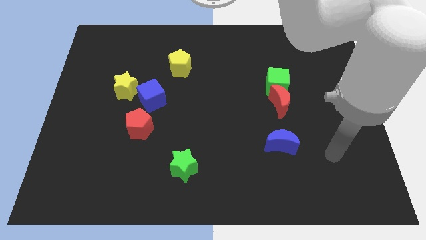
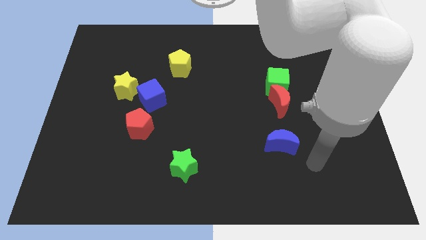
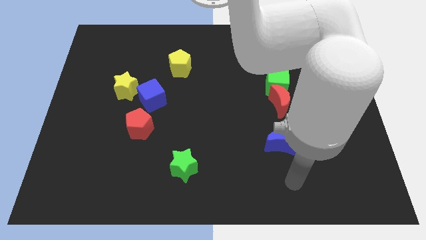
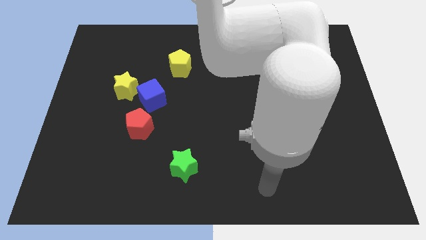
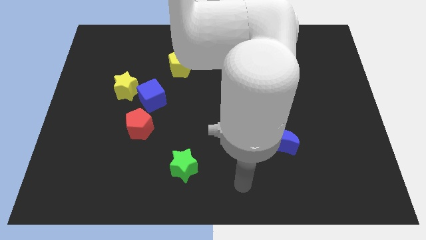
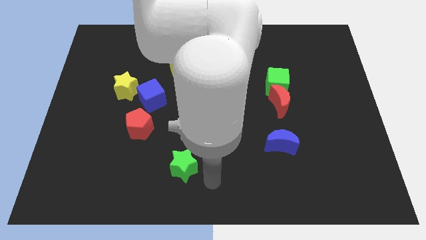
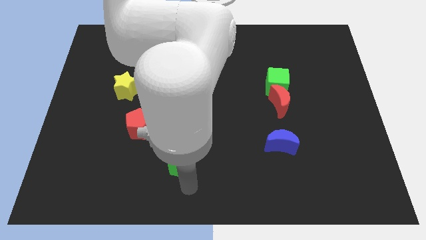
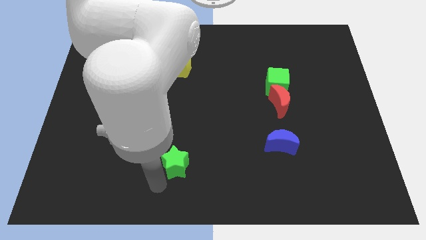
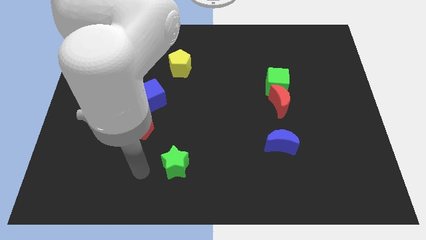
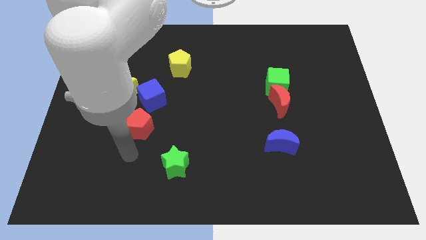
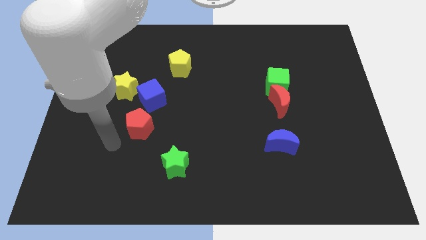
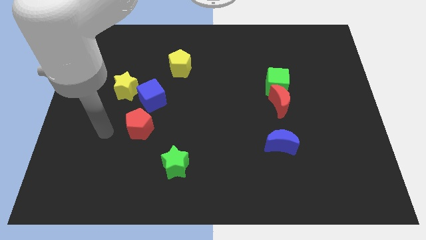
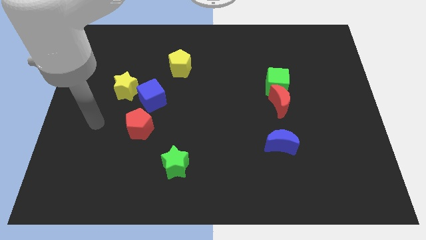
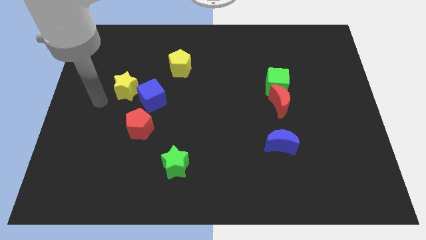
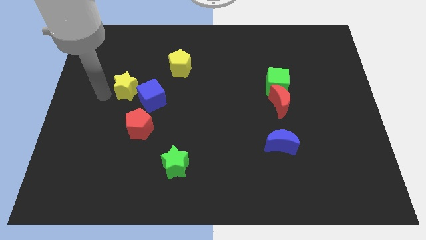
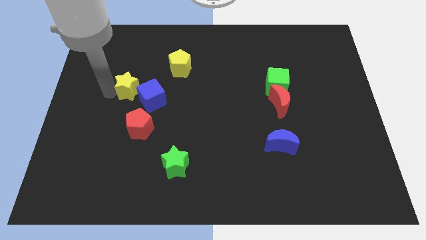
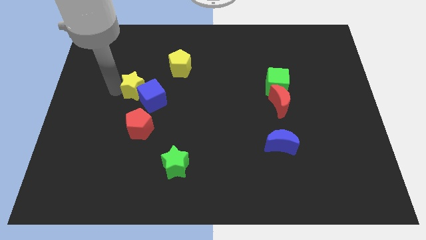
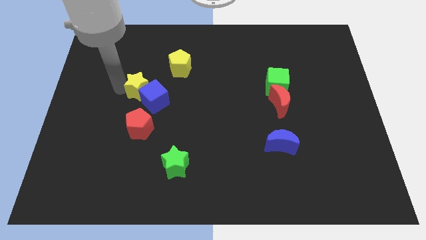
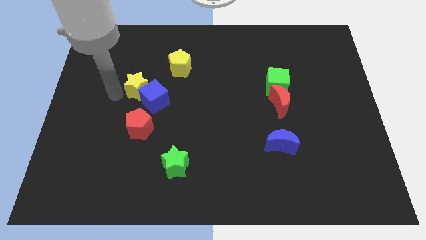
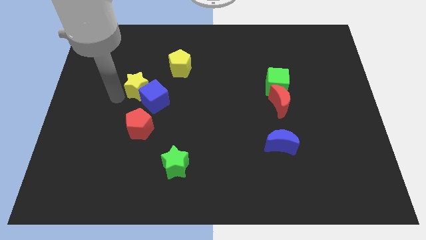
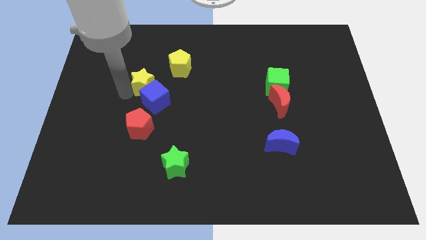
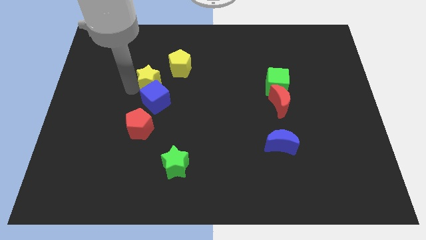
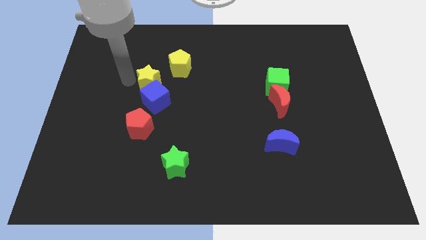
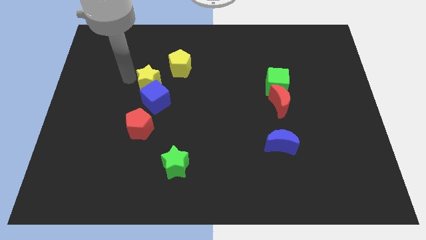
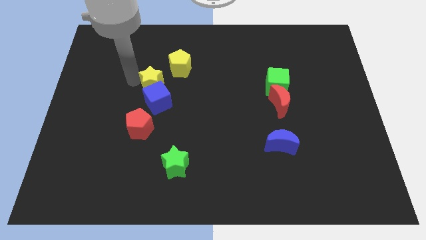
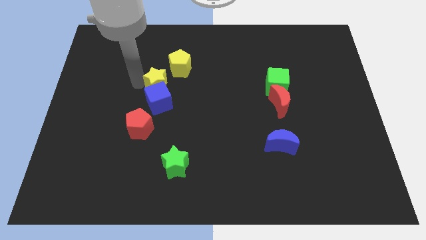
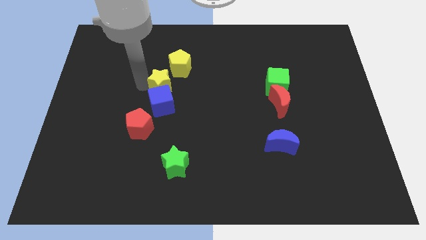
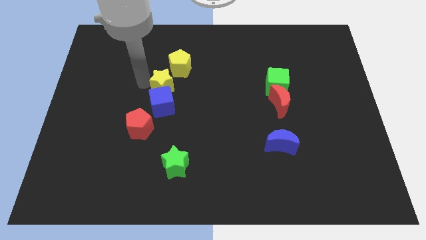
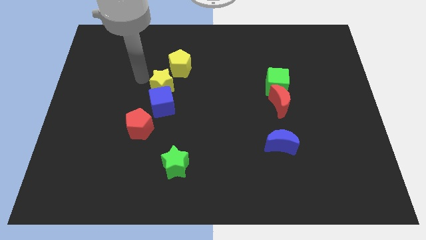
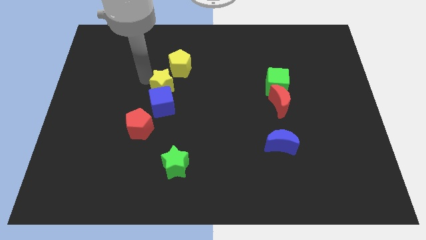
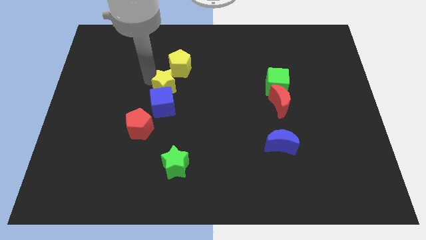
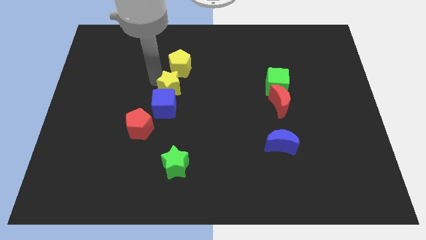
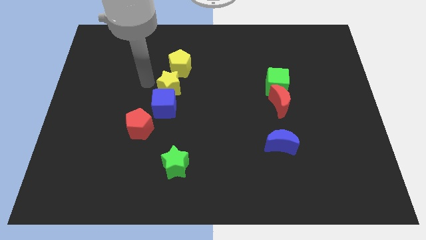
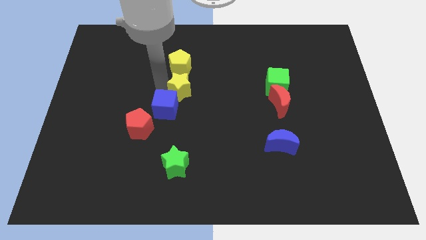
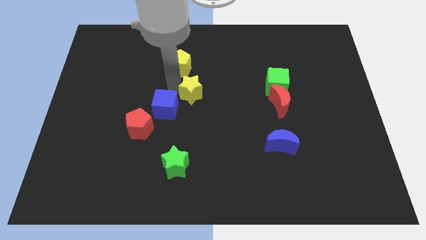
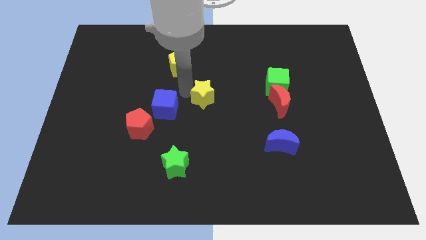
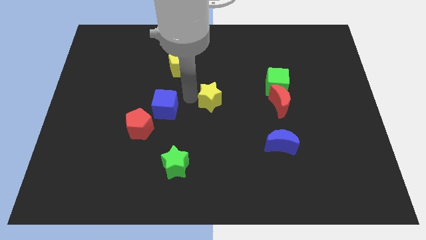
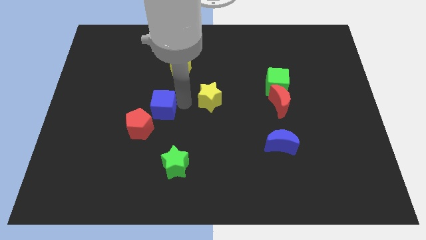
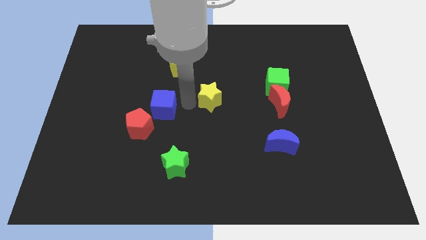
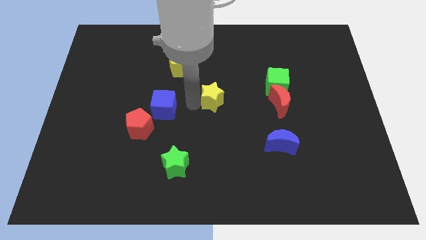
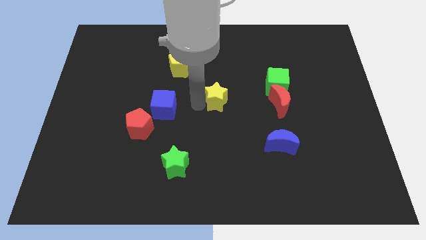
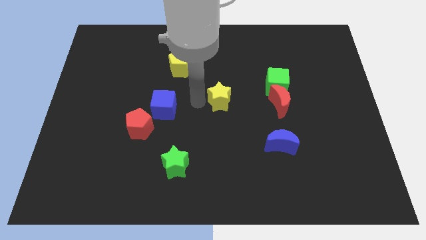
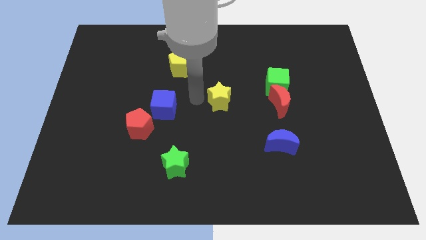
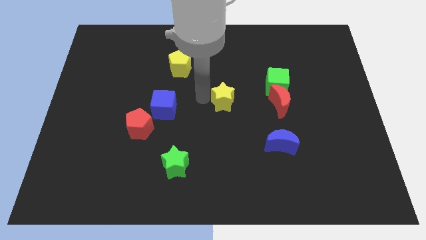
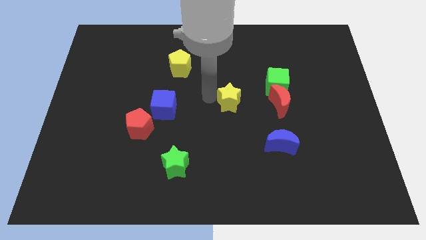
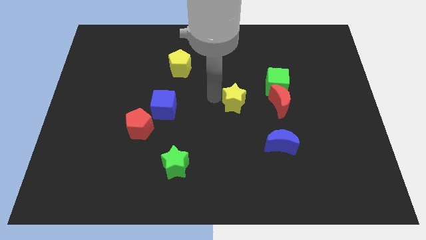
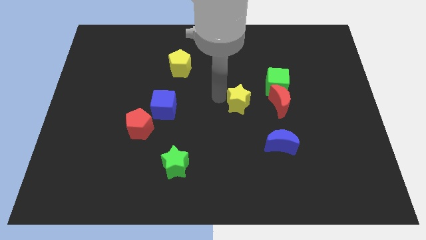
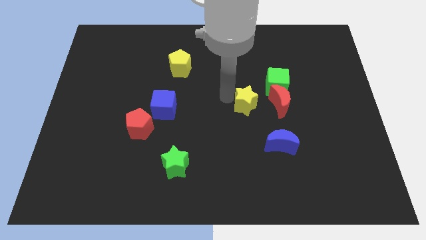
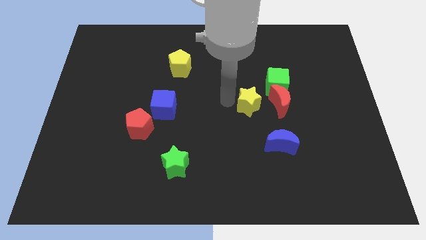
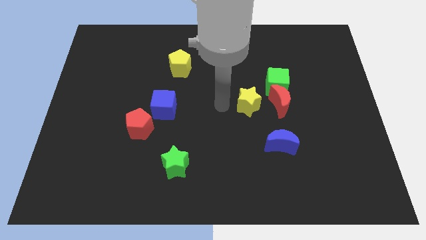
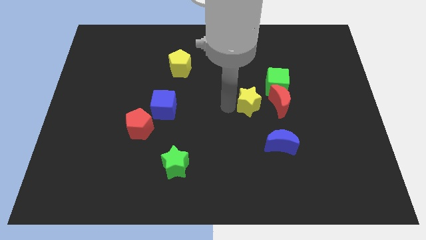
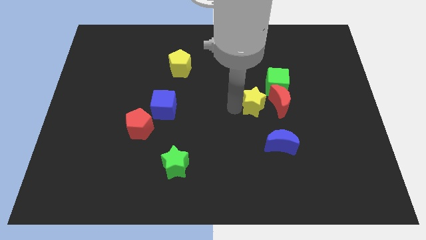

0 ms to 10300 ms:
put the yellow star close to the red moon

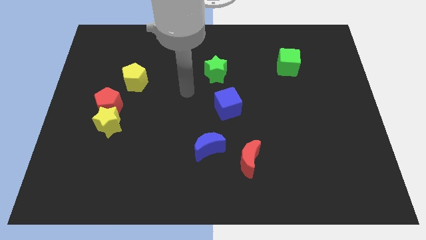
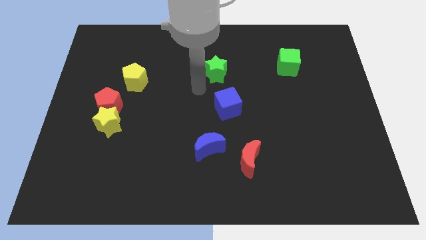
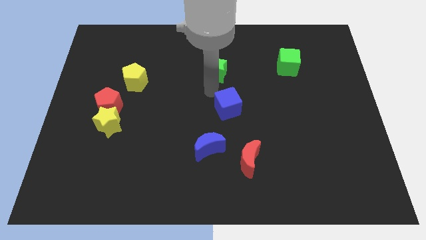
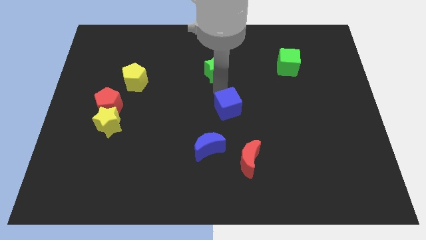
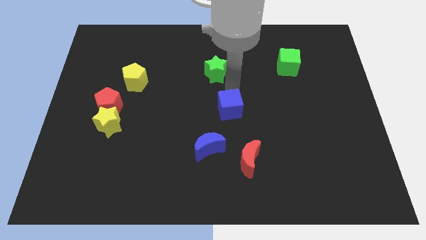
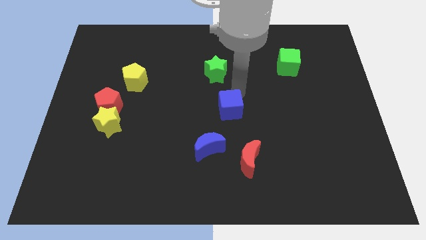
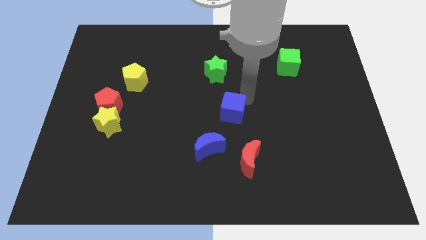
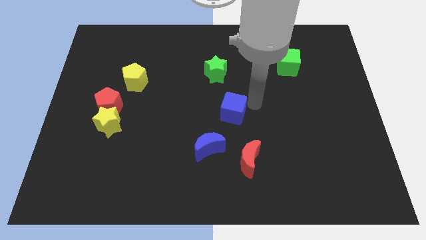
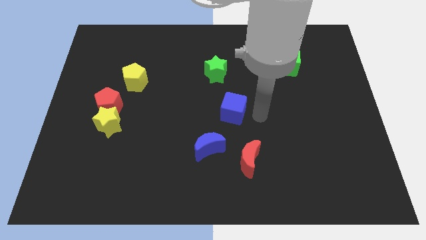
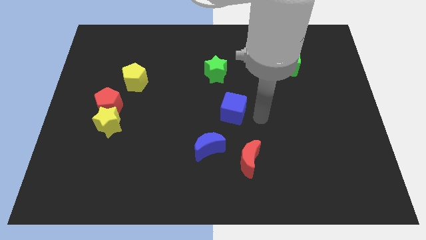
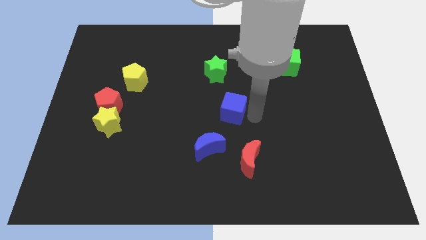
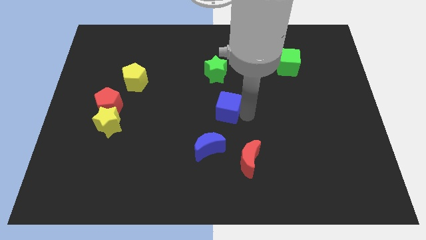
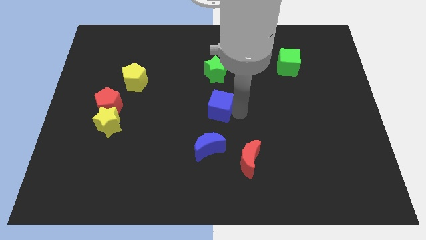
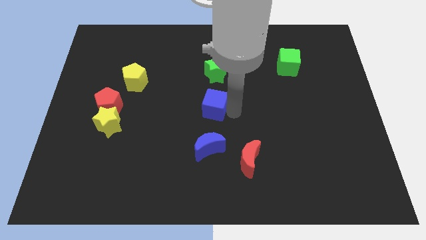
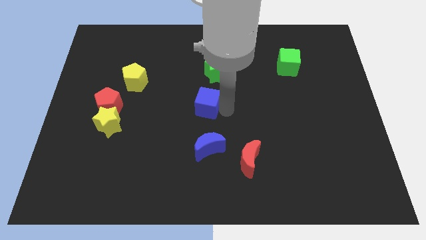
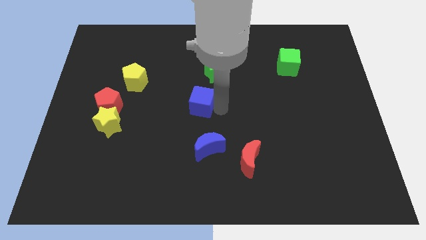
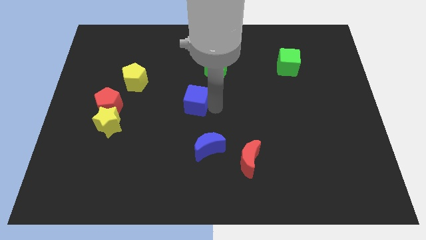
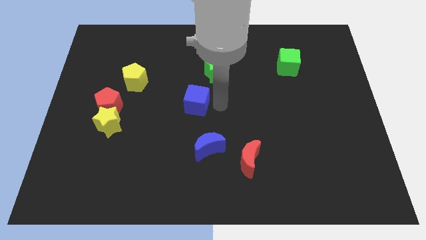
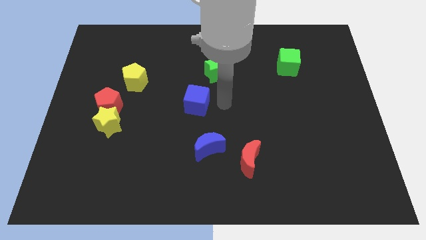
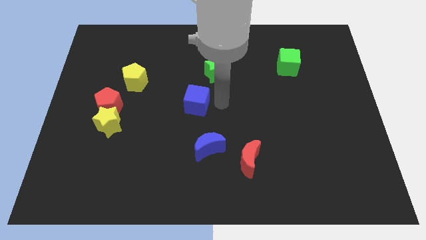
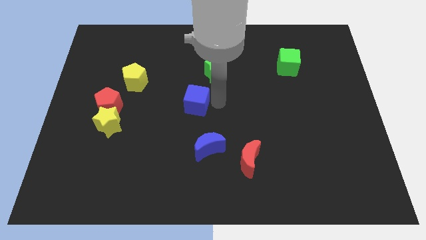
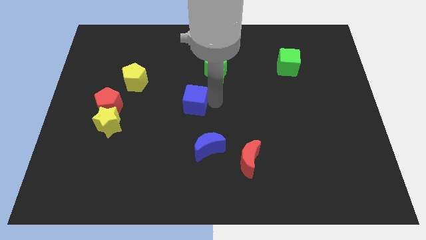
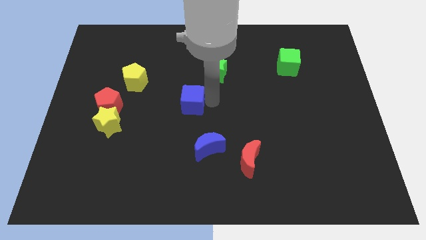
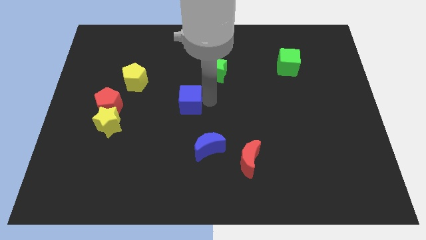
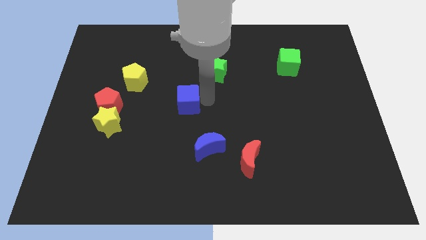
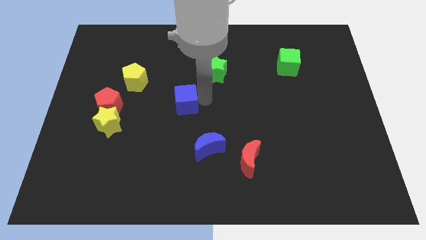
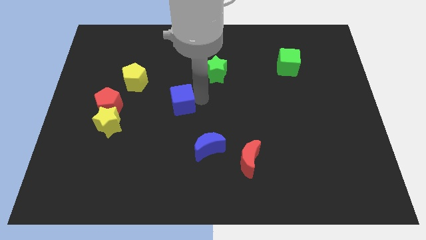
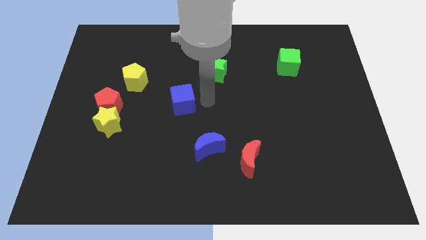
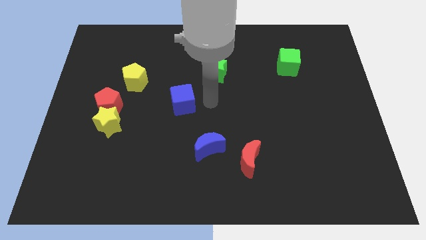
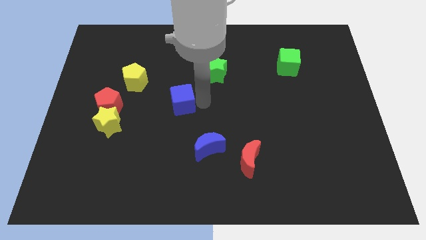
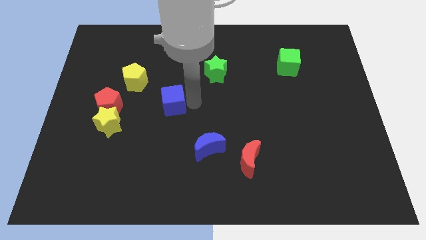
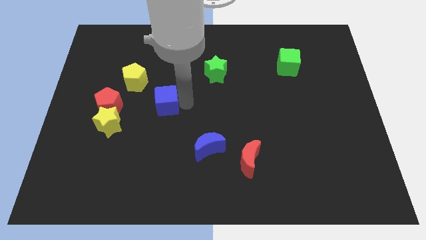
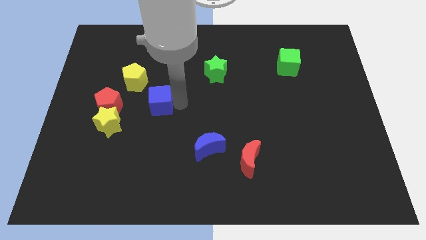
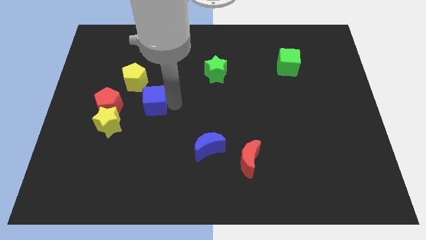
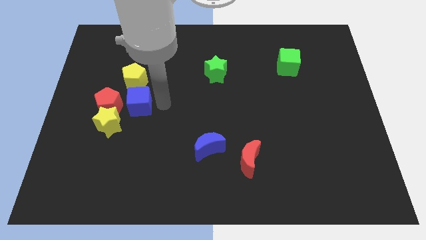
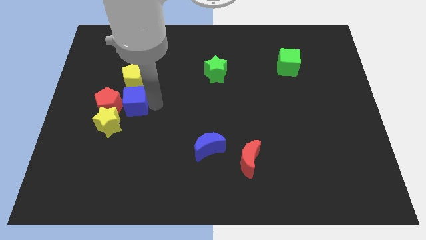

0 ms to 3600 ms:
move the blue cube towards the red pentagon
